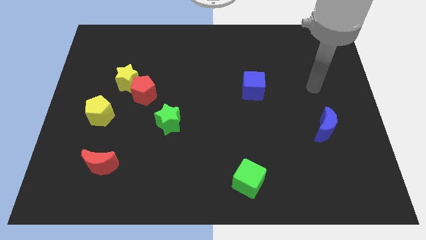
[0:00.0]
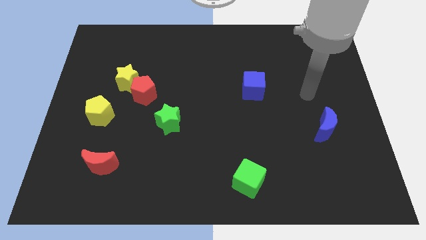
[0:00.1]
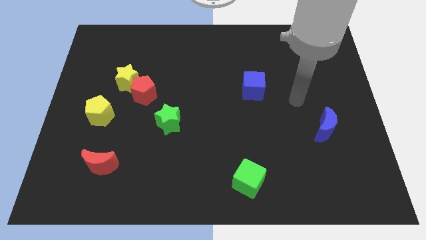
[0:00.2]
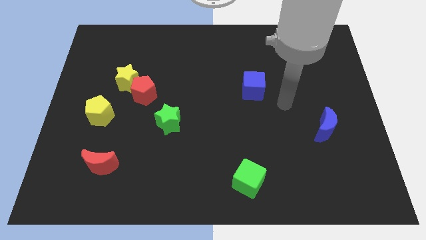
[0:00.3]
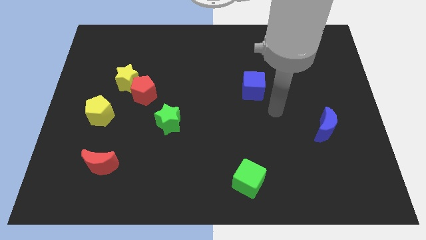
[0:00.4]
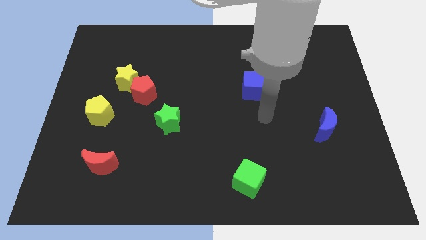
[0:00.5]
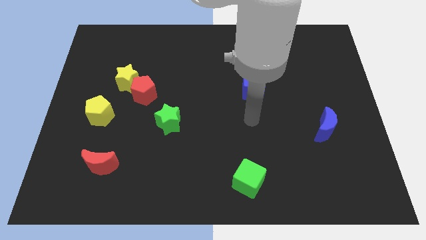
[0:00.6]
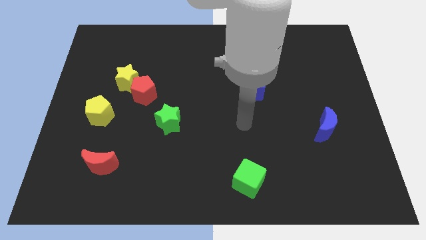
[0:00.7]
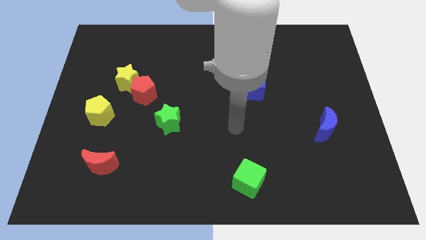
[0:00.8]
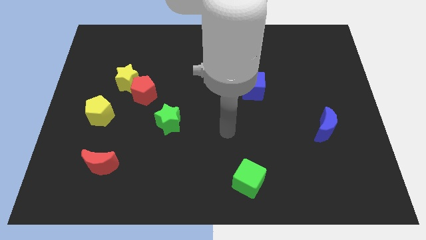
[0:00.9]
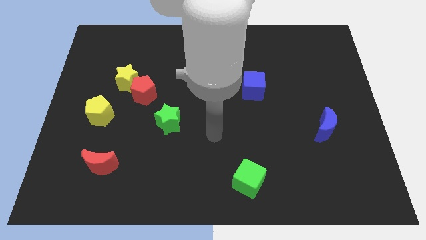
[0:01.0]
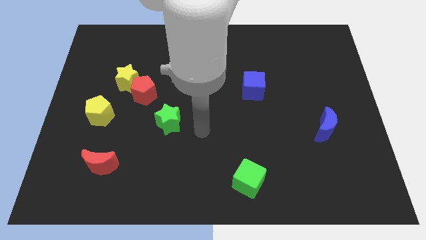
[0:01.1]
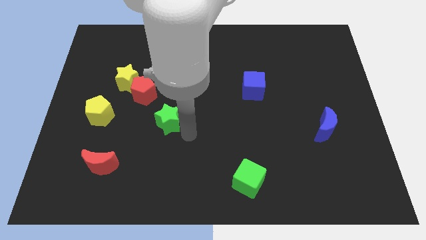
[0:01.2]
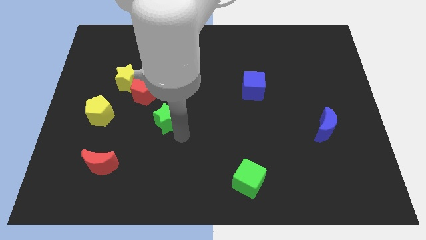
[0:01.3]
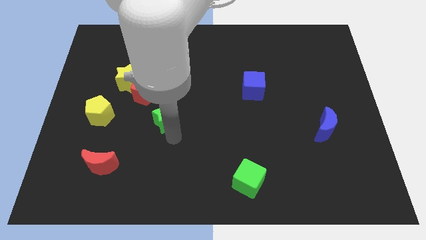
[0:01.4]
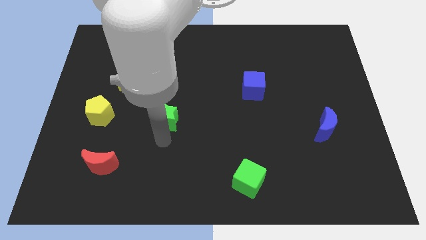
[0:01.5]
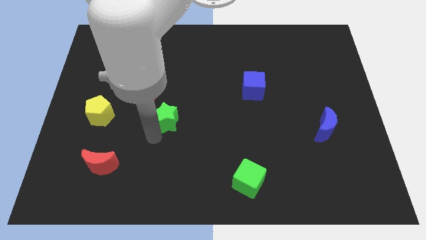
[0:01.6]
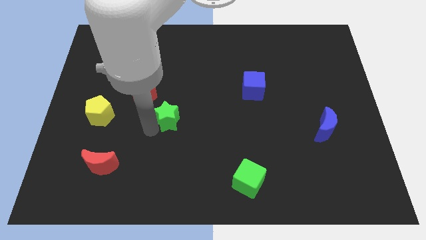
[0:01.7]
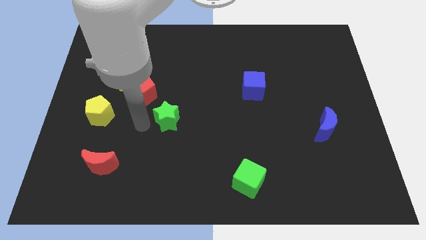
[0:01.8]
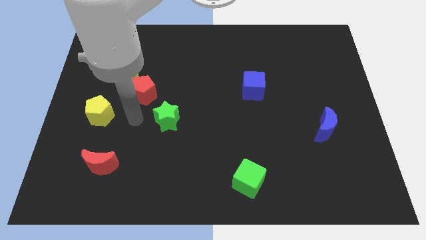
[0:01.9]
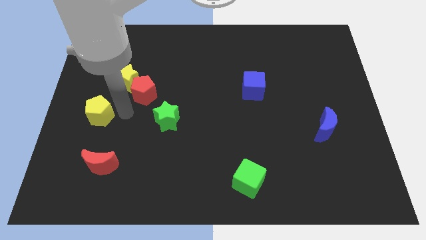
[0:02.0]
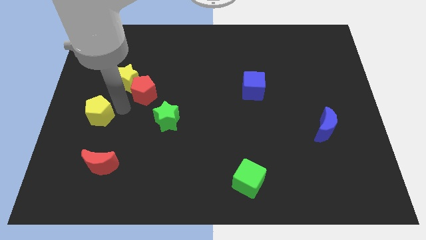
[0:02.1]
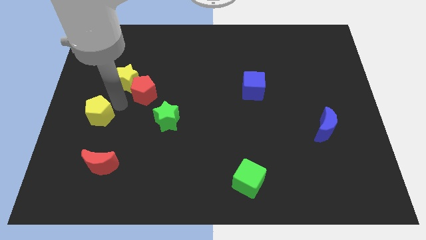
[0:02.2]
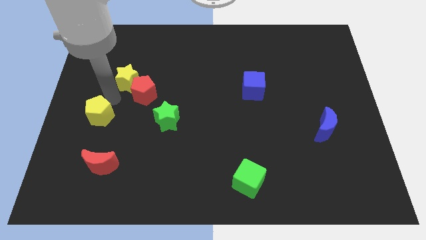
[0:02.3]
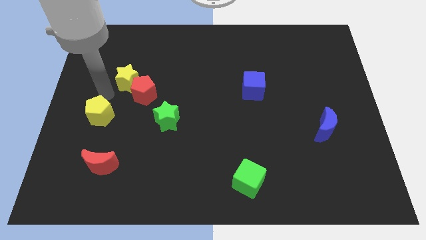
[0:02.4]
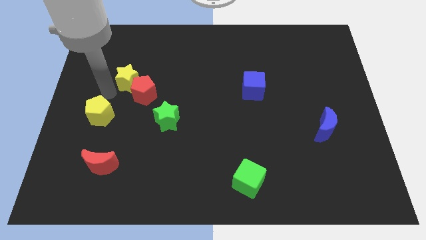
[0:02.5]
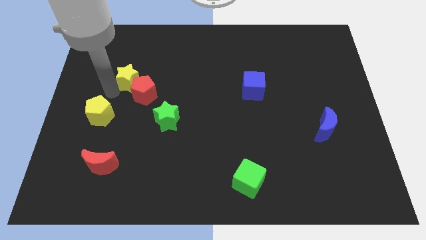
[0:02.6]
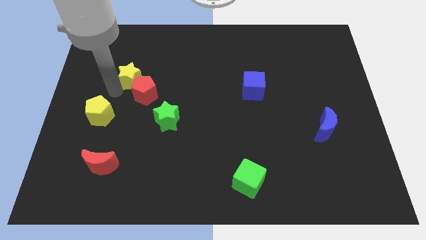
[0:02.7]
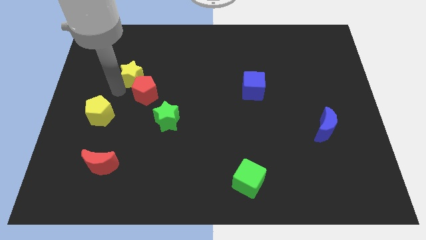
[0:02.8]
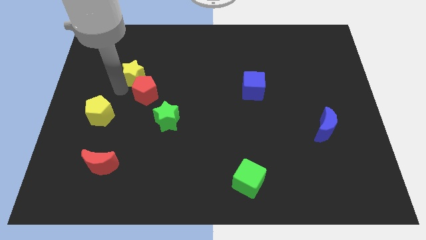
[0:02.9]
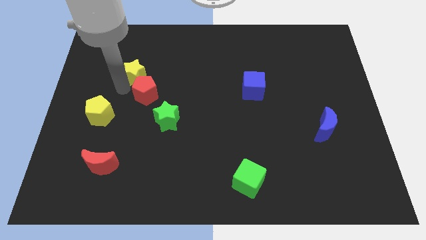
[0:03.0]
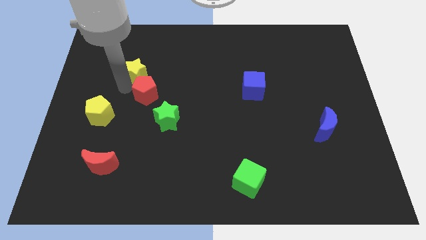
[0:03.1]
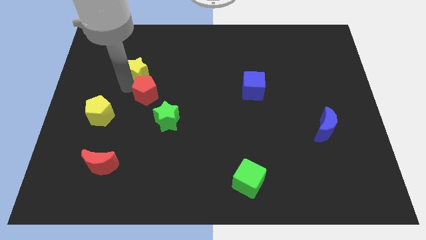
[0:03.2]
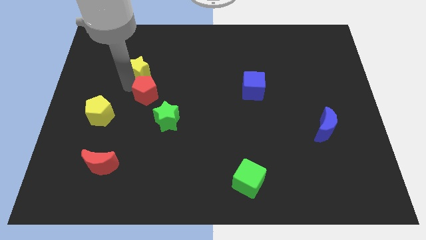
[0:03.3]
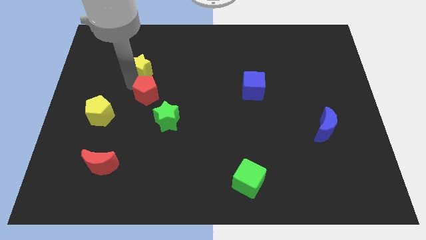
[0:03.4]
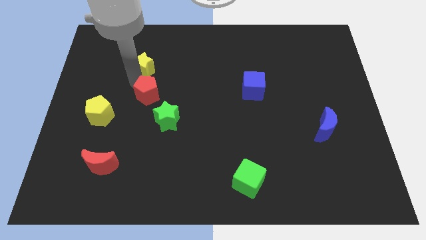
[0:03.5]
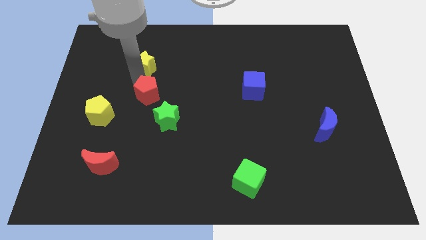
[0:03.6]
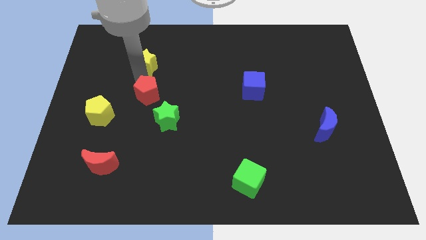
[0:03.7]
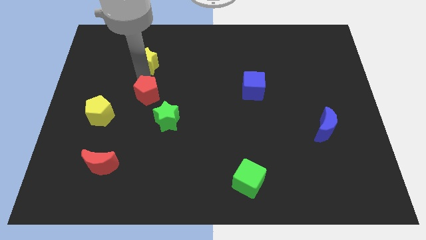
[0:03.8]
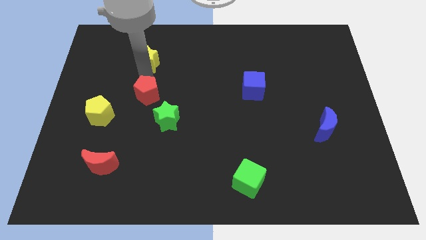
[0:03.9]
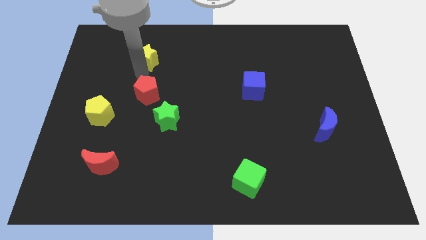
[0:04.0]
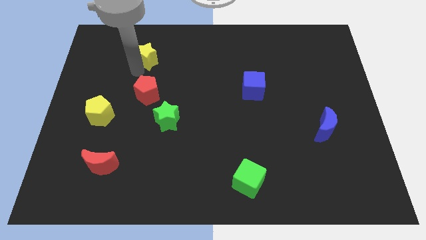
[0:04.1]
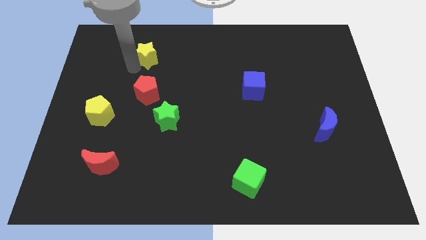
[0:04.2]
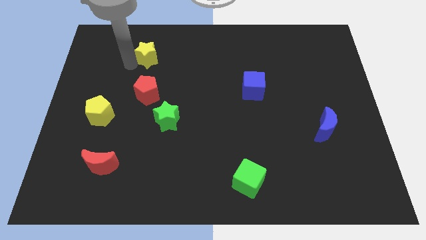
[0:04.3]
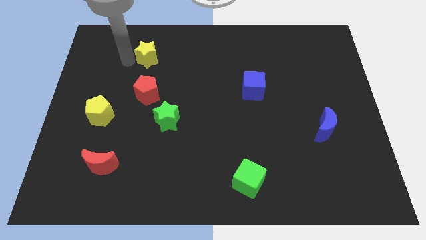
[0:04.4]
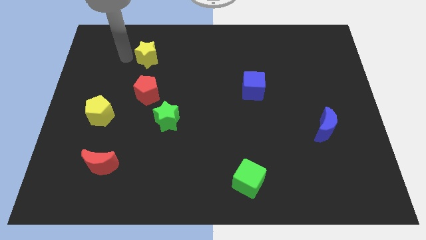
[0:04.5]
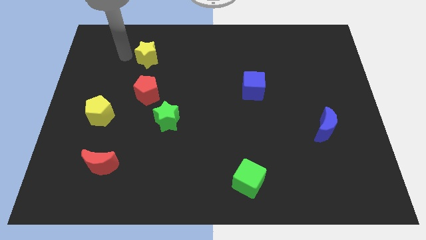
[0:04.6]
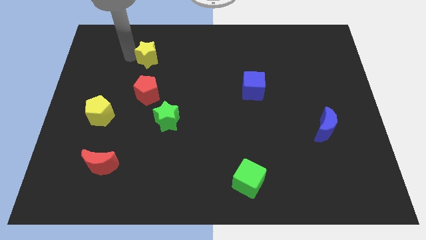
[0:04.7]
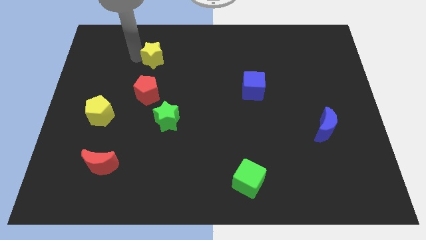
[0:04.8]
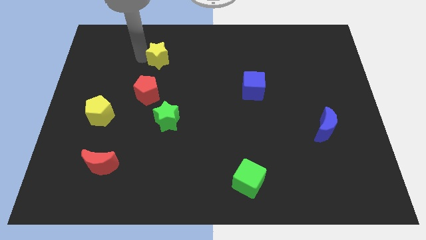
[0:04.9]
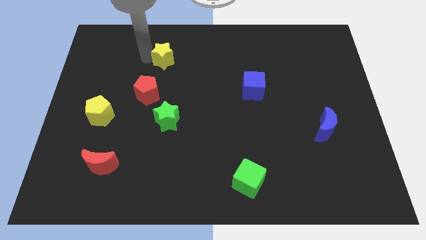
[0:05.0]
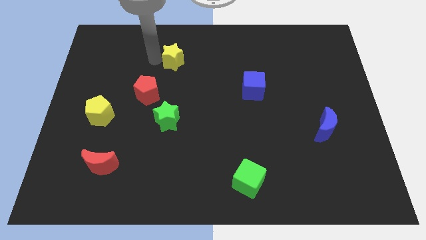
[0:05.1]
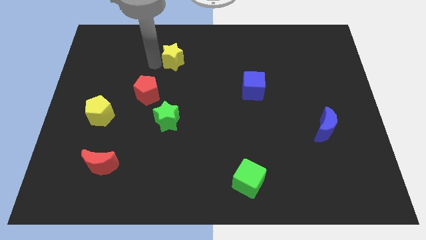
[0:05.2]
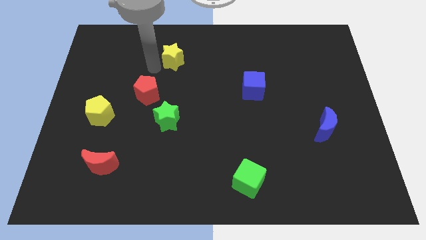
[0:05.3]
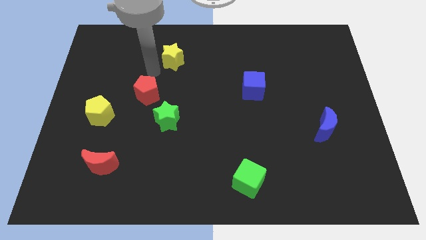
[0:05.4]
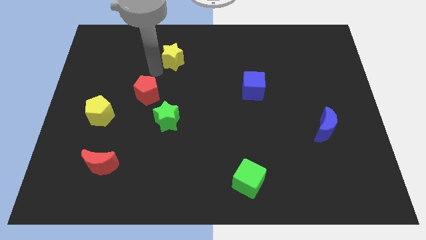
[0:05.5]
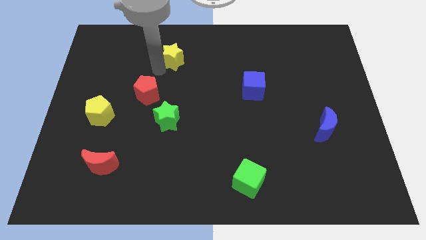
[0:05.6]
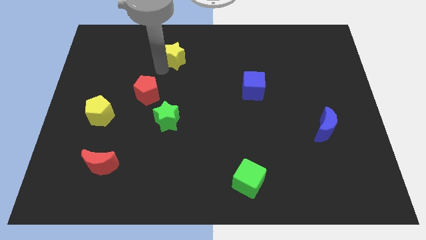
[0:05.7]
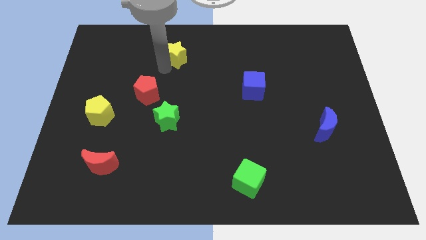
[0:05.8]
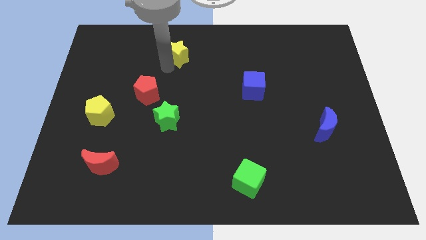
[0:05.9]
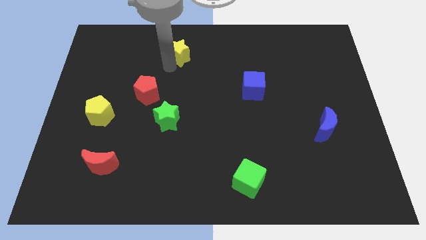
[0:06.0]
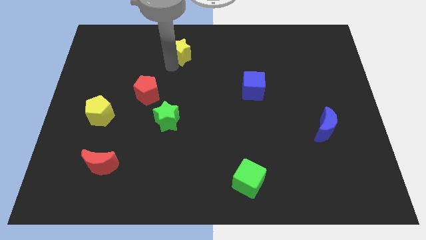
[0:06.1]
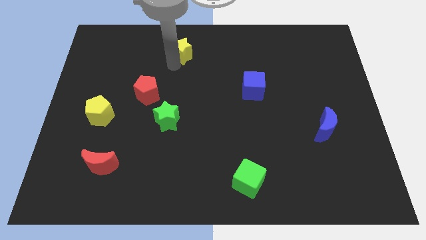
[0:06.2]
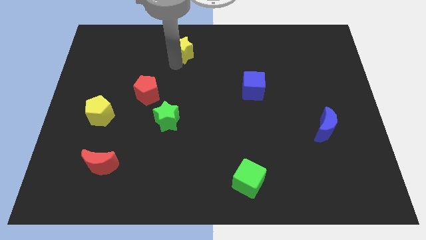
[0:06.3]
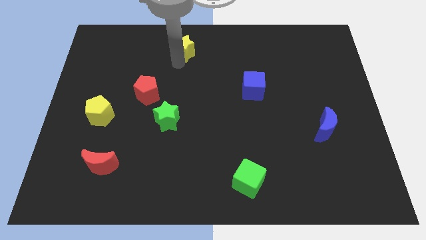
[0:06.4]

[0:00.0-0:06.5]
push the yellow star to the top
